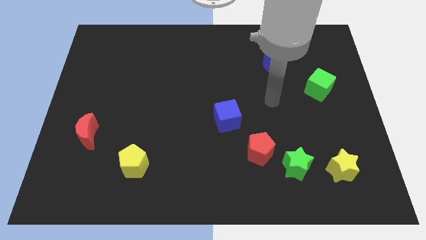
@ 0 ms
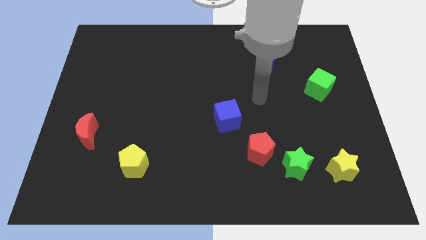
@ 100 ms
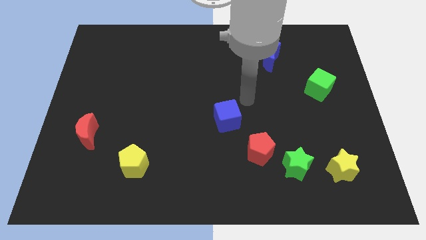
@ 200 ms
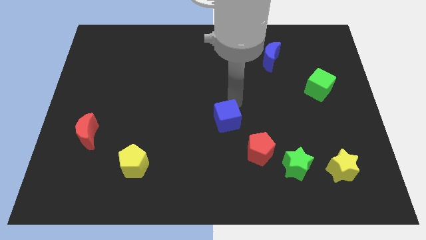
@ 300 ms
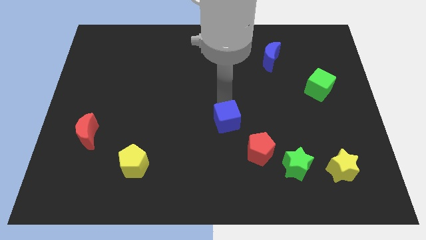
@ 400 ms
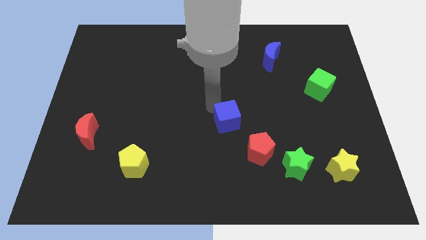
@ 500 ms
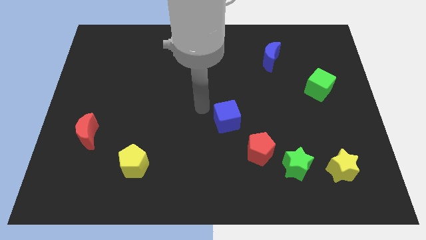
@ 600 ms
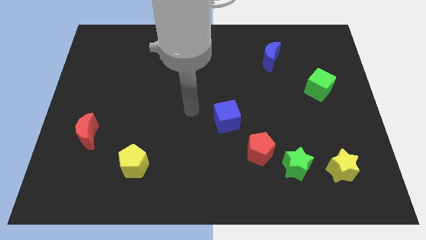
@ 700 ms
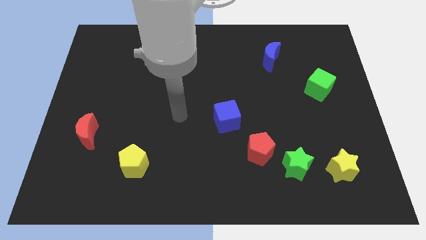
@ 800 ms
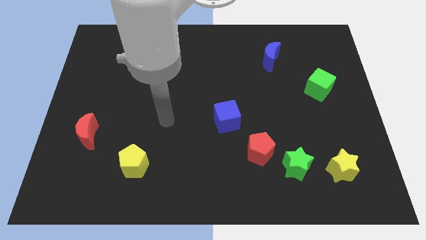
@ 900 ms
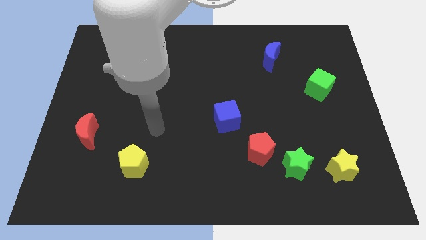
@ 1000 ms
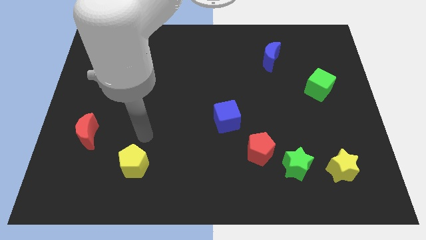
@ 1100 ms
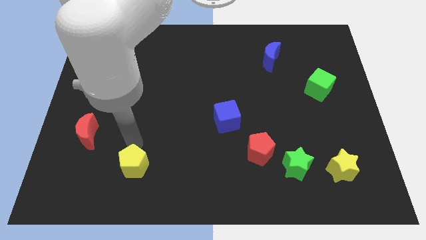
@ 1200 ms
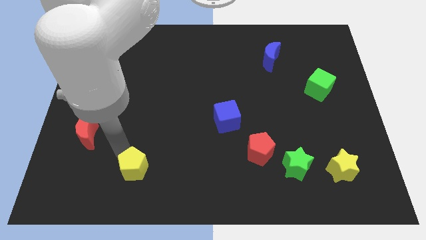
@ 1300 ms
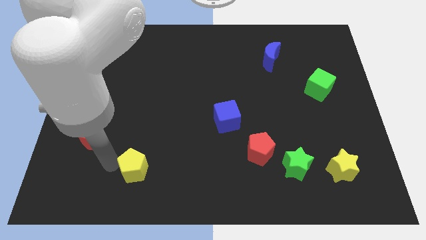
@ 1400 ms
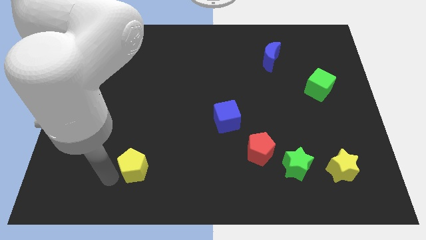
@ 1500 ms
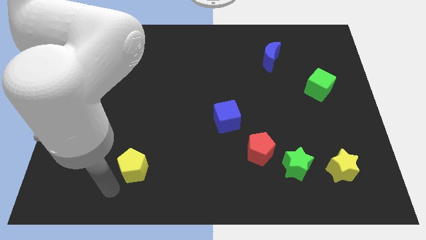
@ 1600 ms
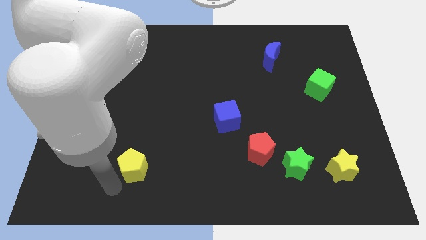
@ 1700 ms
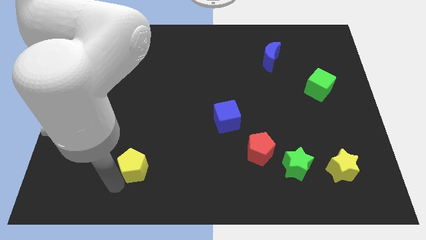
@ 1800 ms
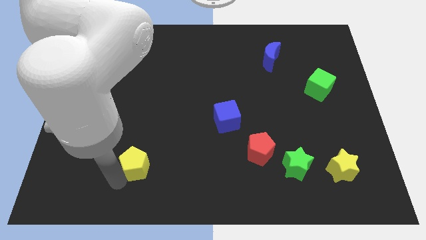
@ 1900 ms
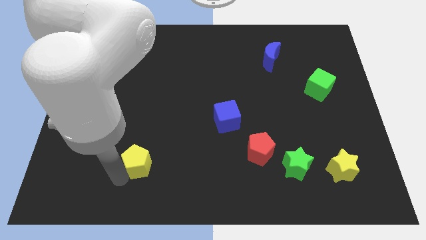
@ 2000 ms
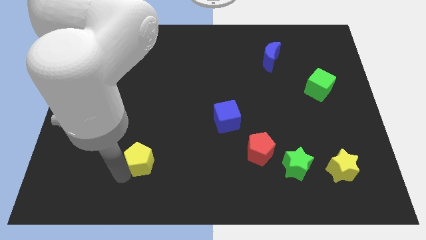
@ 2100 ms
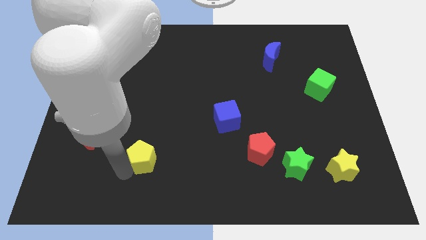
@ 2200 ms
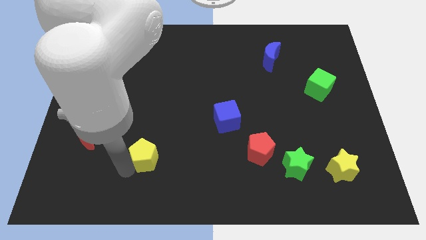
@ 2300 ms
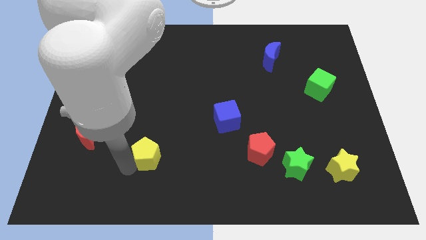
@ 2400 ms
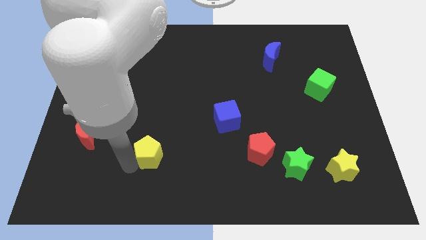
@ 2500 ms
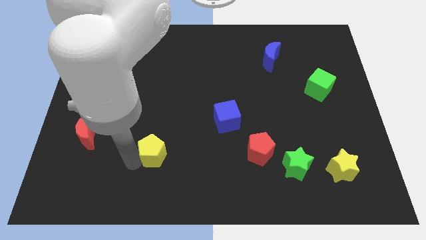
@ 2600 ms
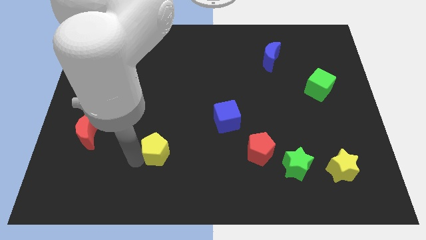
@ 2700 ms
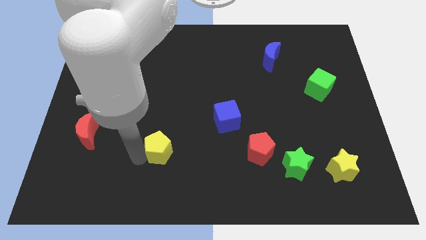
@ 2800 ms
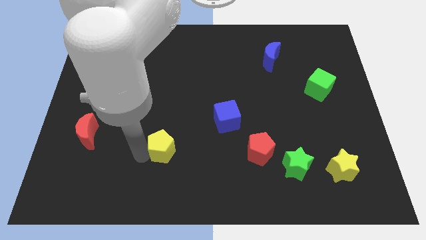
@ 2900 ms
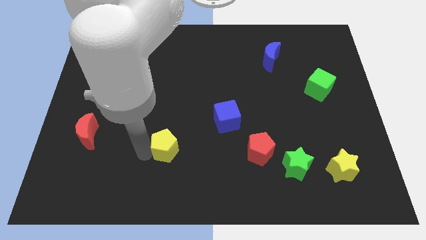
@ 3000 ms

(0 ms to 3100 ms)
push the yellow pentagon a little up and then to the right

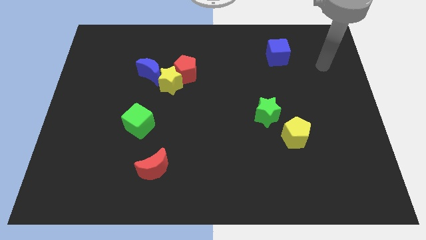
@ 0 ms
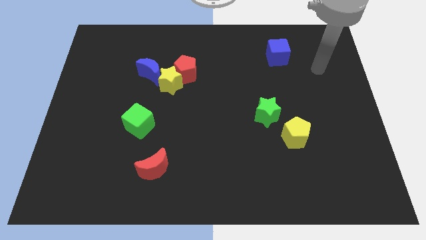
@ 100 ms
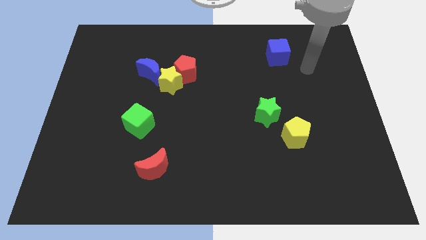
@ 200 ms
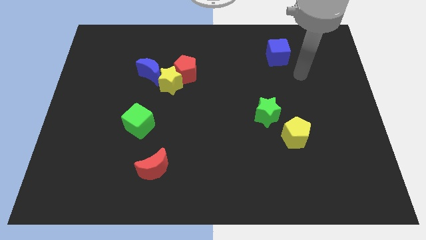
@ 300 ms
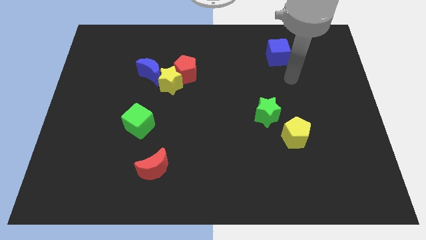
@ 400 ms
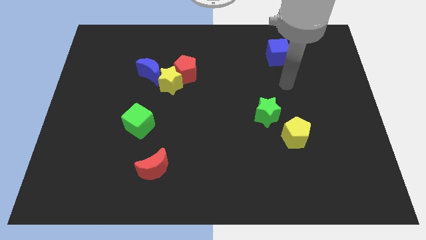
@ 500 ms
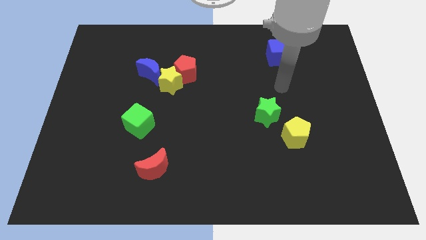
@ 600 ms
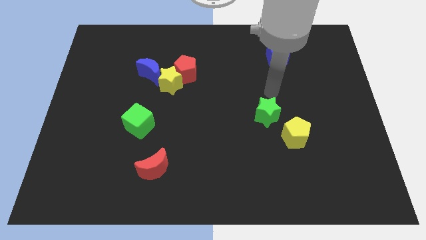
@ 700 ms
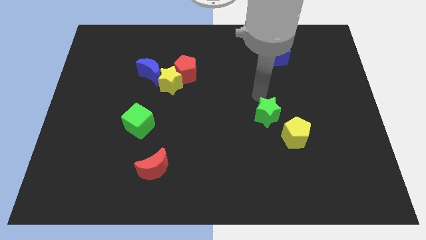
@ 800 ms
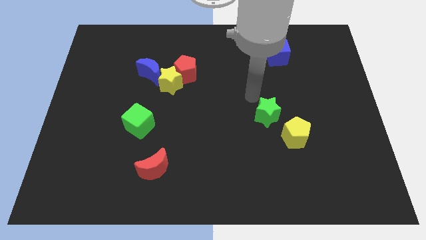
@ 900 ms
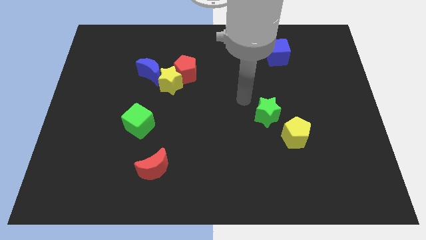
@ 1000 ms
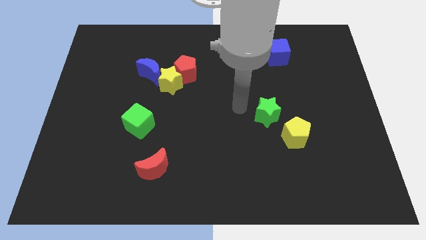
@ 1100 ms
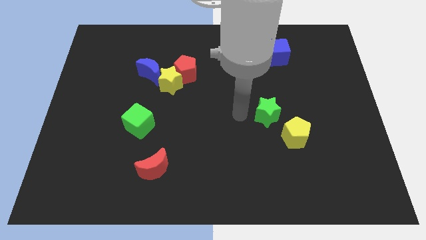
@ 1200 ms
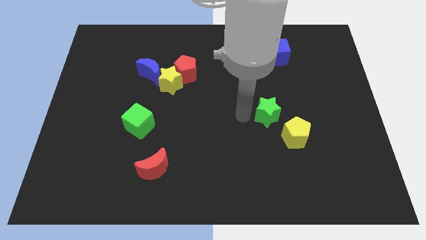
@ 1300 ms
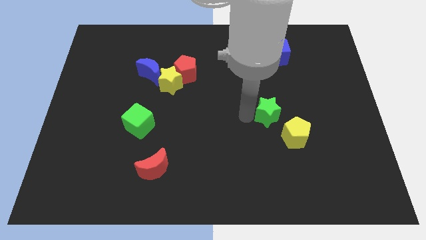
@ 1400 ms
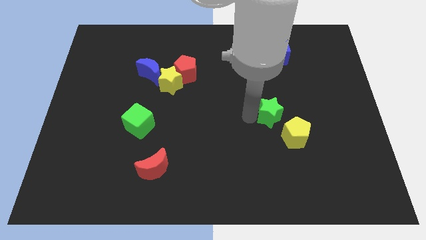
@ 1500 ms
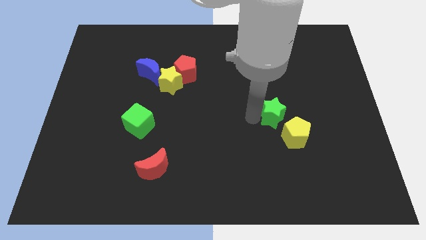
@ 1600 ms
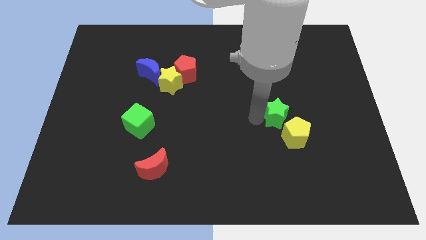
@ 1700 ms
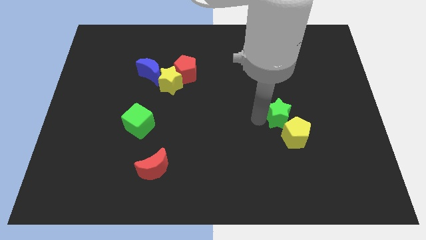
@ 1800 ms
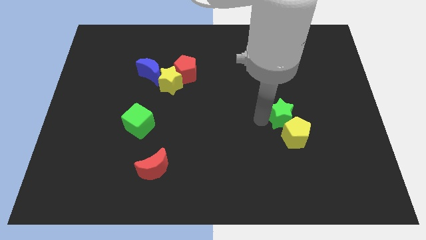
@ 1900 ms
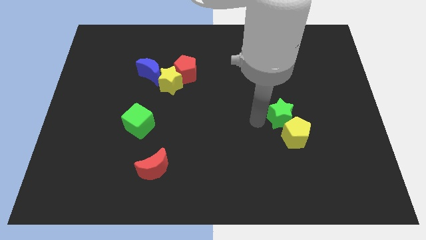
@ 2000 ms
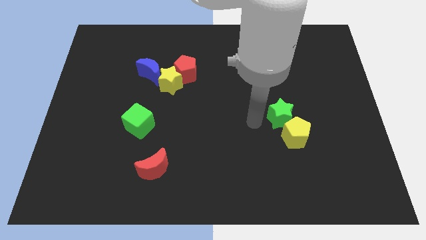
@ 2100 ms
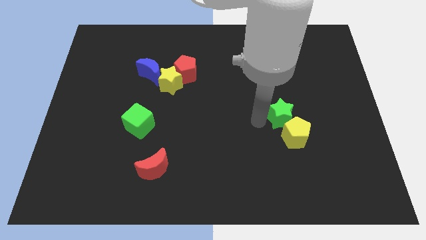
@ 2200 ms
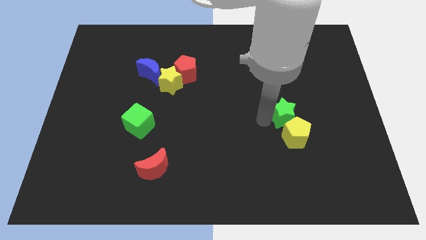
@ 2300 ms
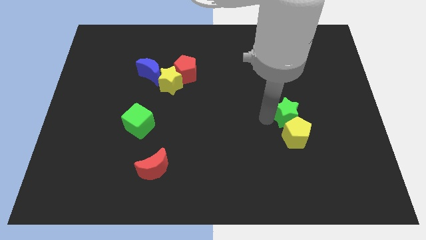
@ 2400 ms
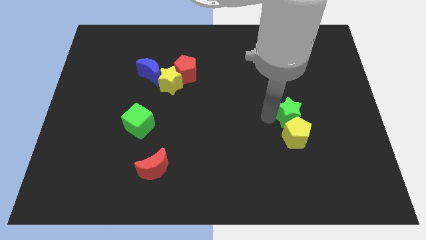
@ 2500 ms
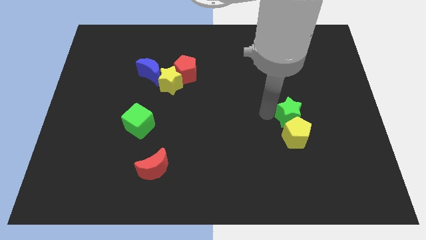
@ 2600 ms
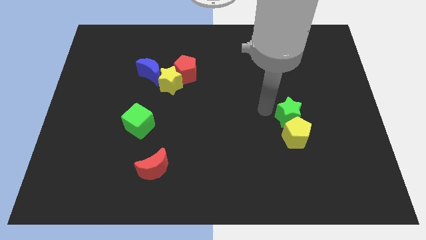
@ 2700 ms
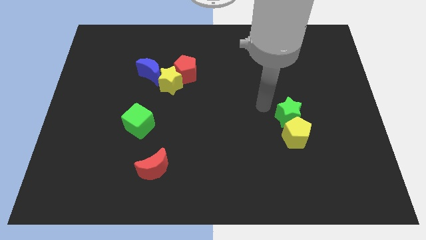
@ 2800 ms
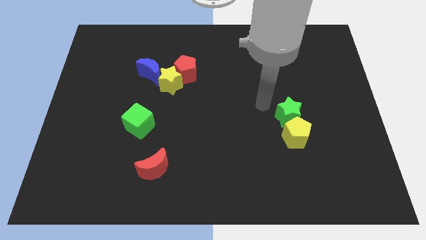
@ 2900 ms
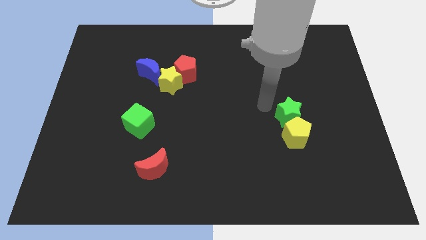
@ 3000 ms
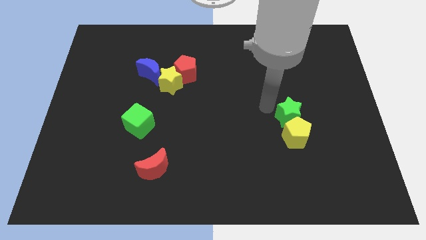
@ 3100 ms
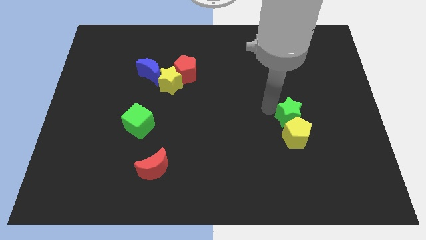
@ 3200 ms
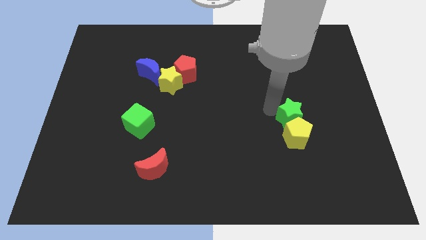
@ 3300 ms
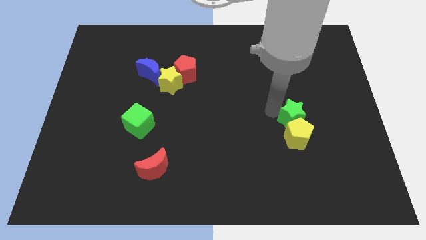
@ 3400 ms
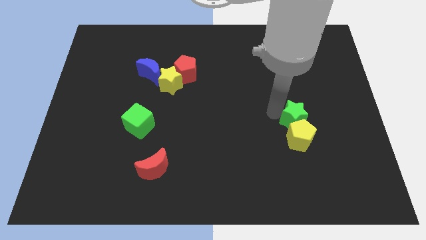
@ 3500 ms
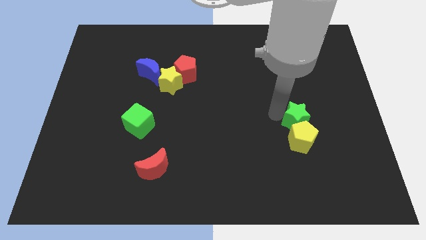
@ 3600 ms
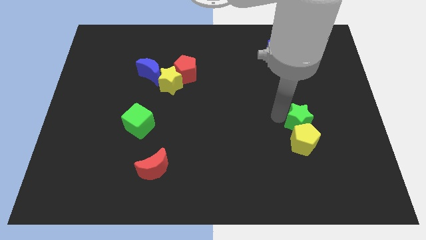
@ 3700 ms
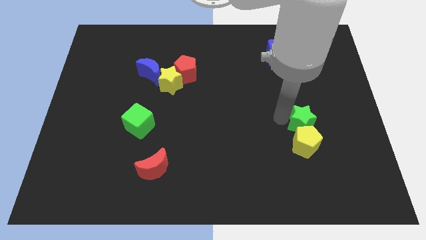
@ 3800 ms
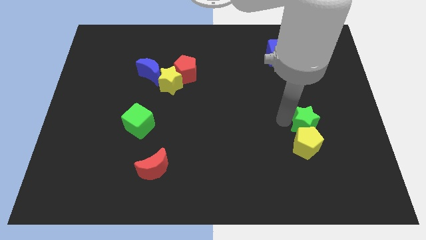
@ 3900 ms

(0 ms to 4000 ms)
move the green star down and then right slightly

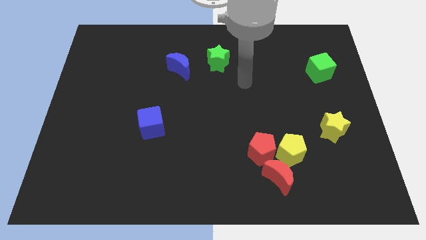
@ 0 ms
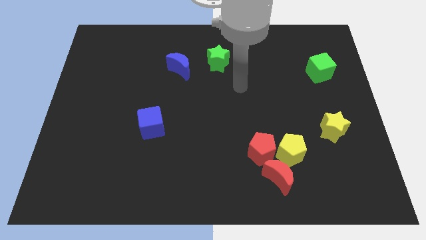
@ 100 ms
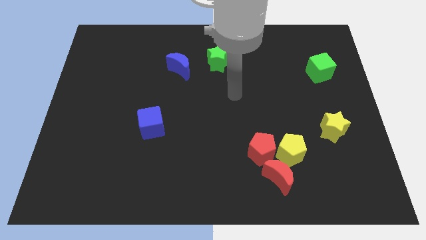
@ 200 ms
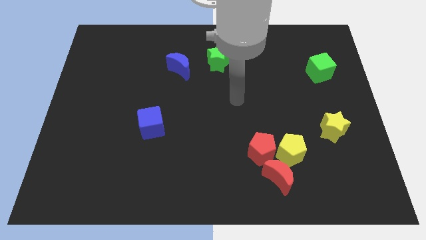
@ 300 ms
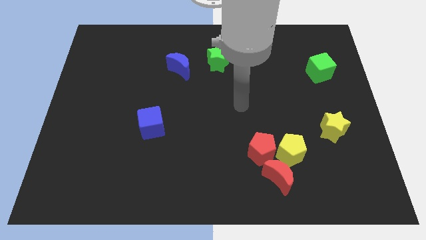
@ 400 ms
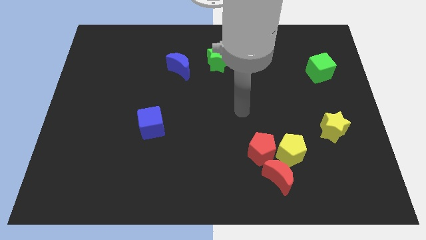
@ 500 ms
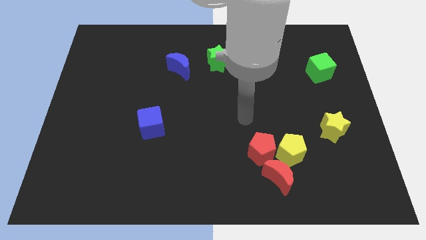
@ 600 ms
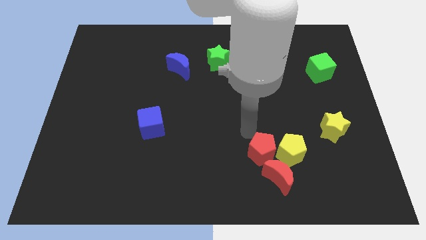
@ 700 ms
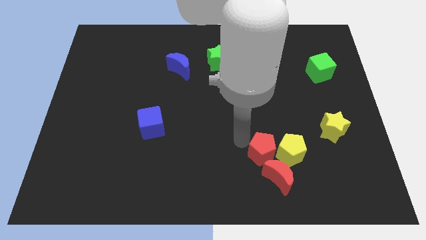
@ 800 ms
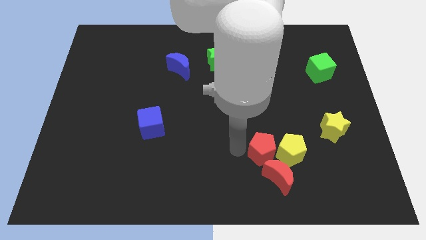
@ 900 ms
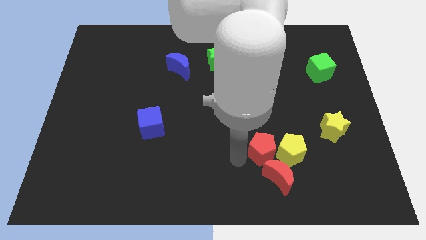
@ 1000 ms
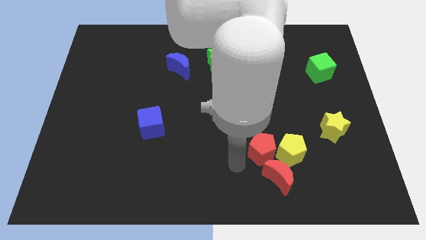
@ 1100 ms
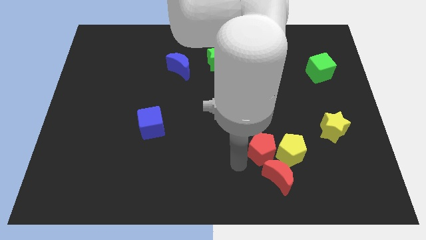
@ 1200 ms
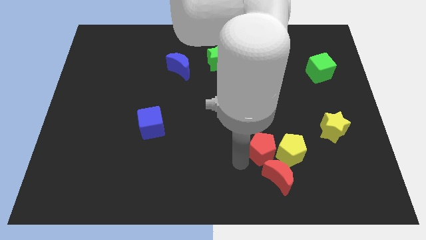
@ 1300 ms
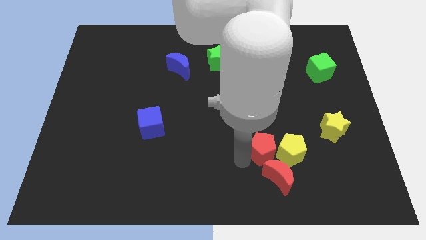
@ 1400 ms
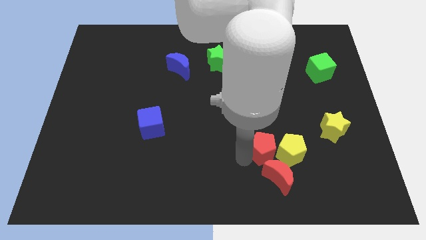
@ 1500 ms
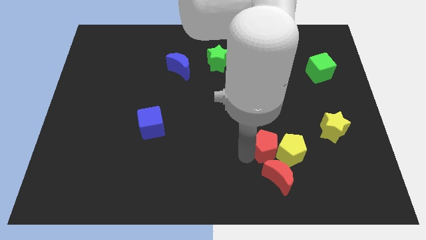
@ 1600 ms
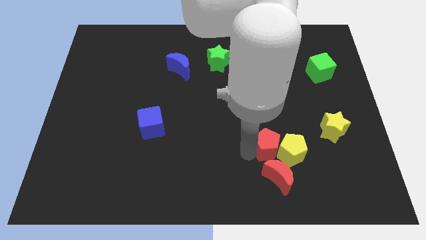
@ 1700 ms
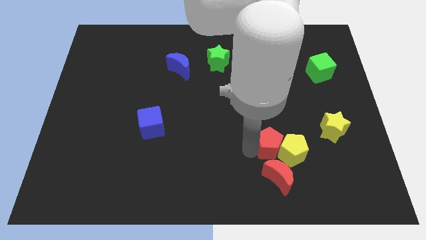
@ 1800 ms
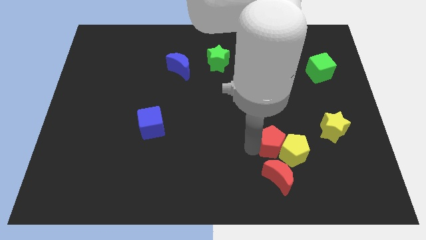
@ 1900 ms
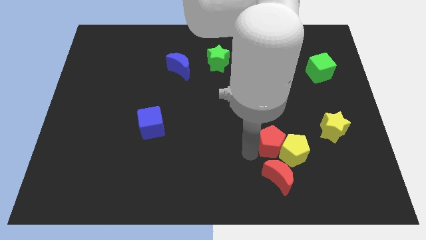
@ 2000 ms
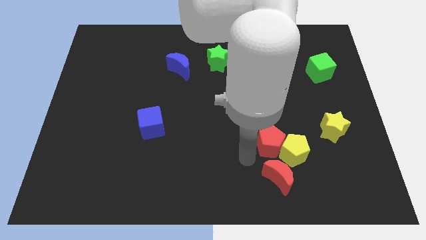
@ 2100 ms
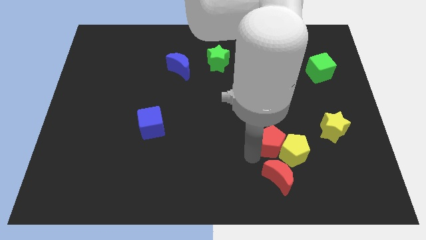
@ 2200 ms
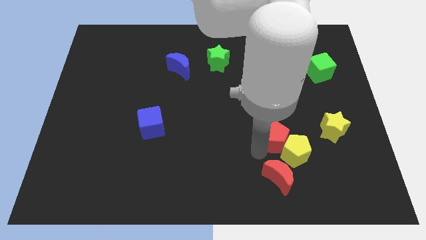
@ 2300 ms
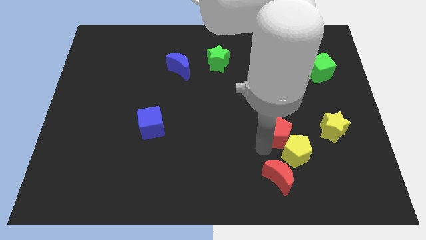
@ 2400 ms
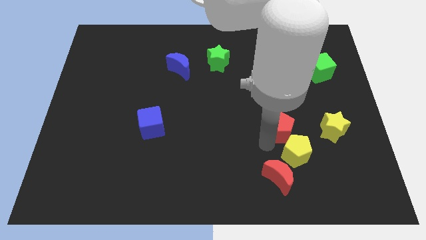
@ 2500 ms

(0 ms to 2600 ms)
slightly push the red pentagon upwards and to the right diagonally
